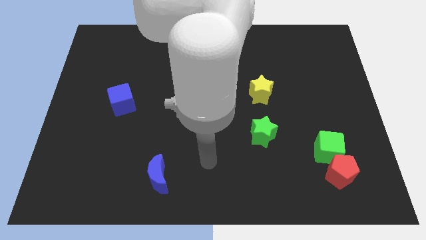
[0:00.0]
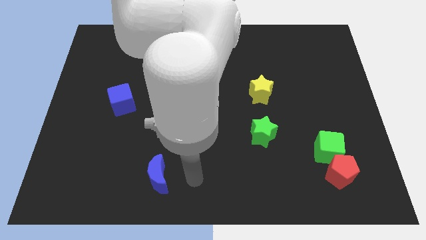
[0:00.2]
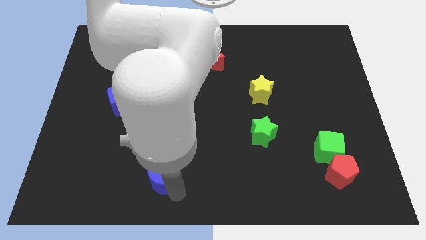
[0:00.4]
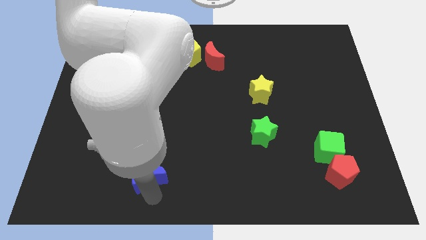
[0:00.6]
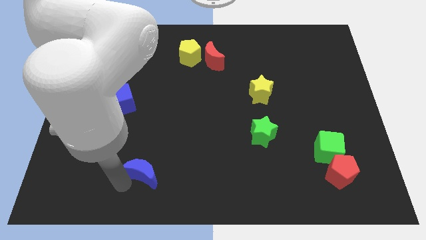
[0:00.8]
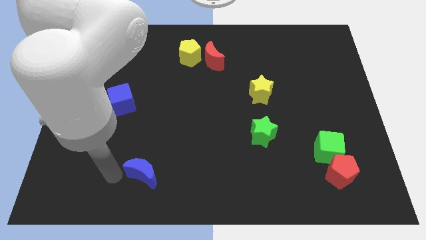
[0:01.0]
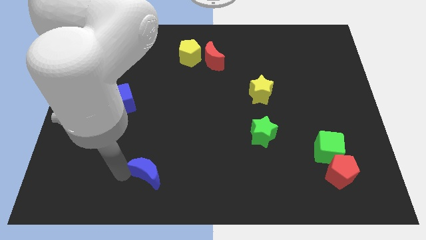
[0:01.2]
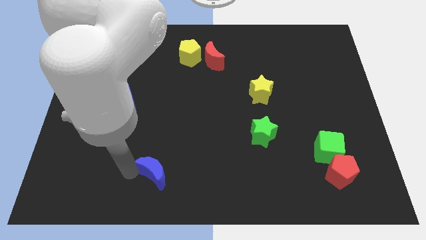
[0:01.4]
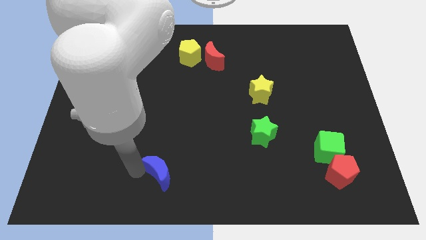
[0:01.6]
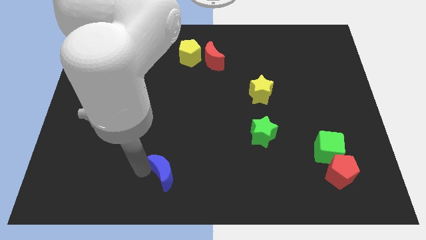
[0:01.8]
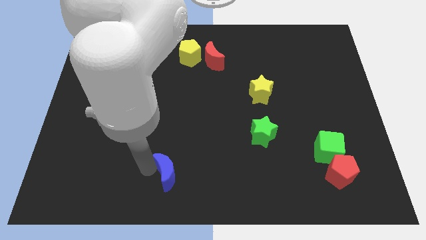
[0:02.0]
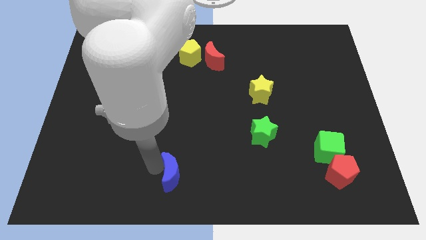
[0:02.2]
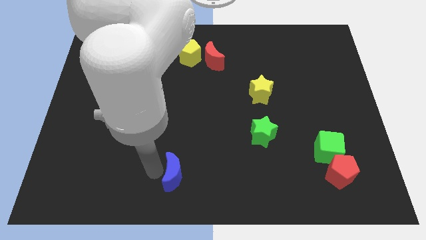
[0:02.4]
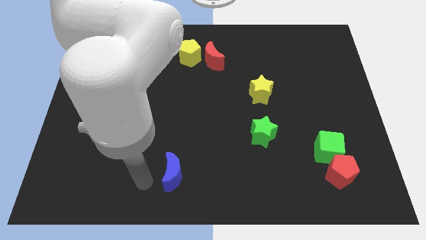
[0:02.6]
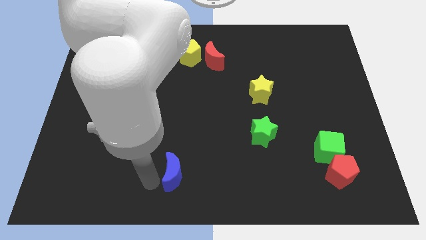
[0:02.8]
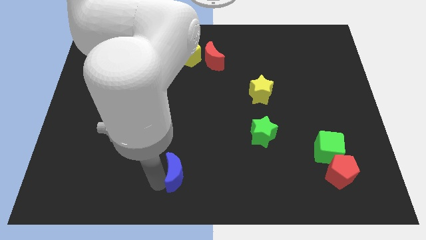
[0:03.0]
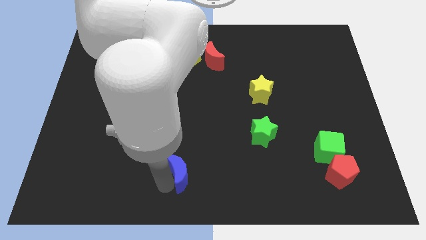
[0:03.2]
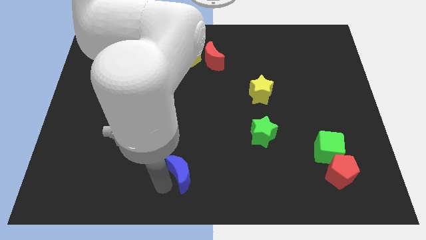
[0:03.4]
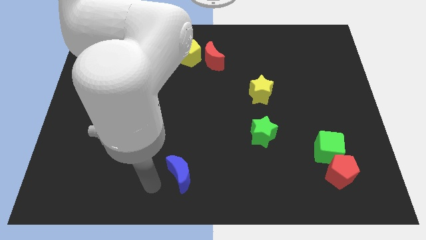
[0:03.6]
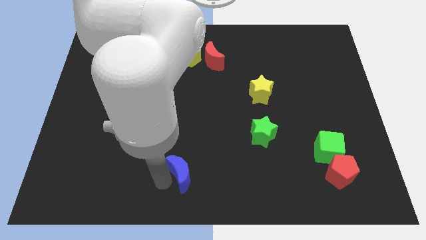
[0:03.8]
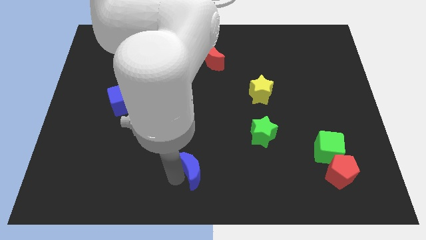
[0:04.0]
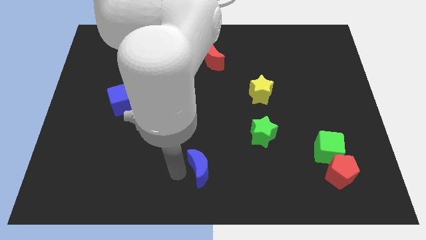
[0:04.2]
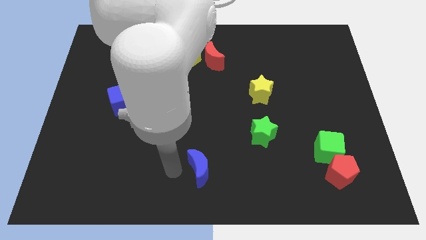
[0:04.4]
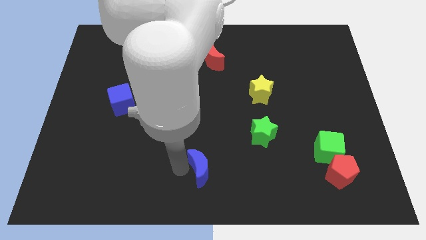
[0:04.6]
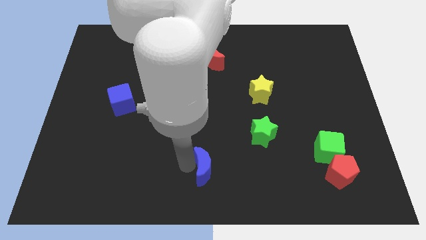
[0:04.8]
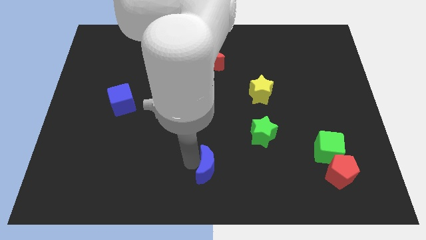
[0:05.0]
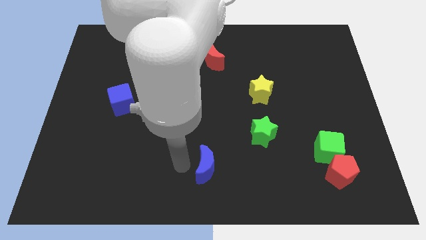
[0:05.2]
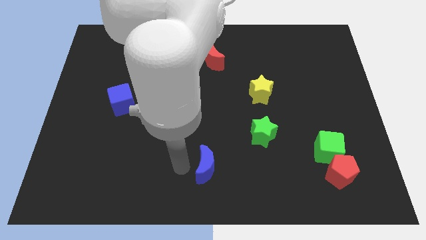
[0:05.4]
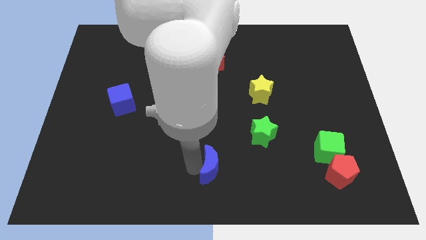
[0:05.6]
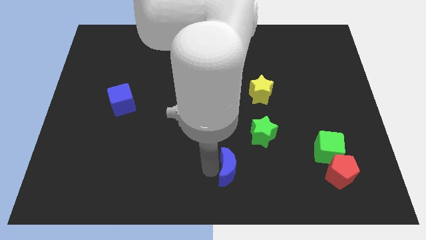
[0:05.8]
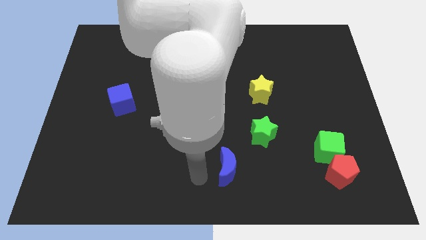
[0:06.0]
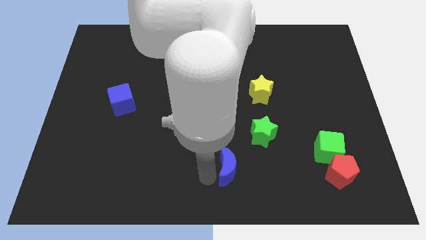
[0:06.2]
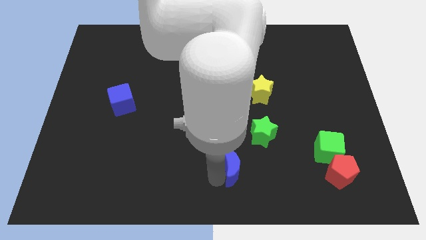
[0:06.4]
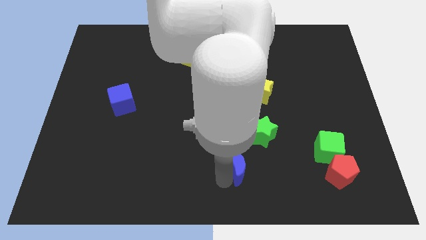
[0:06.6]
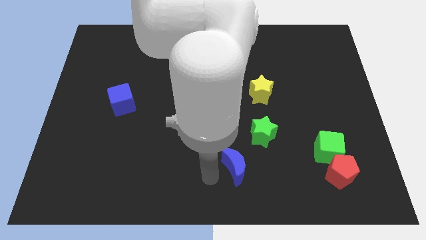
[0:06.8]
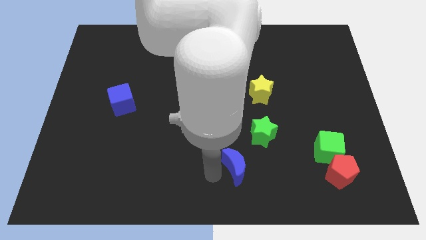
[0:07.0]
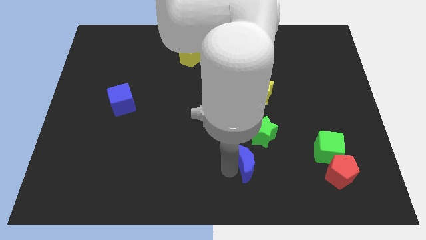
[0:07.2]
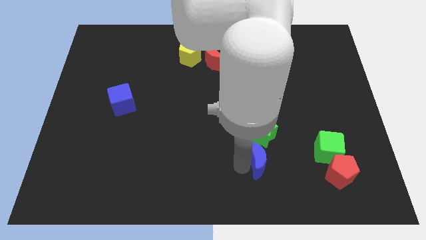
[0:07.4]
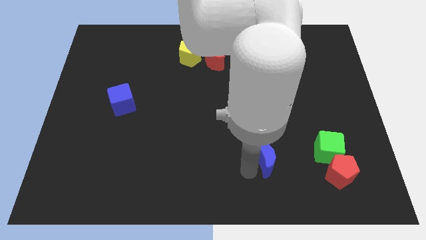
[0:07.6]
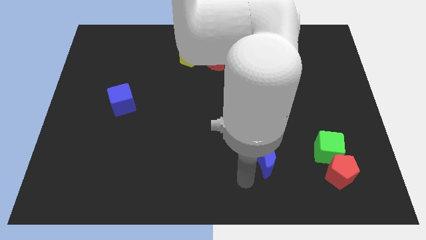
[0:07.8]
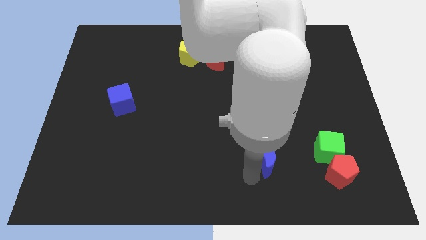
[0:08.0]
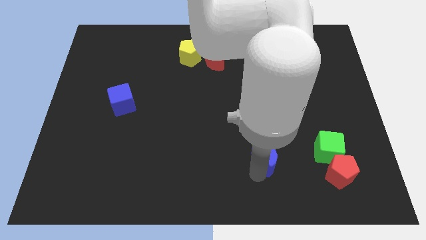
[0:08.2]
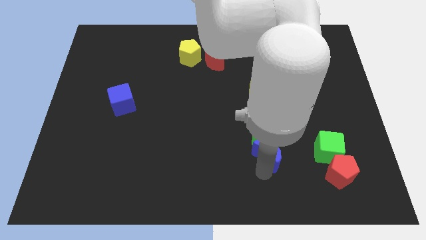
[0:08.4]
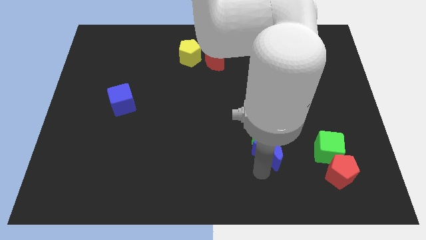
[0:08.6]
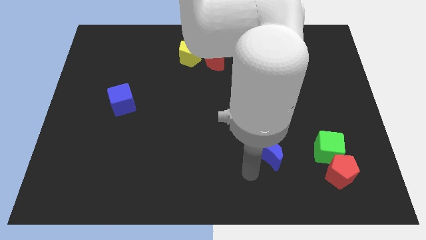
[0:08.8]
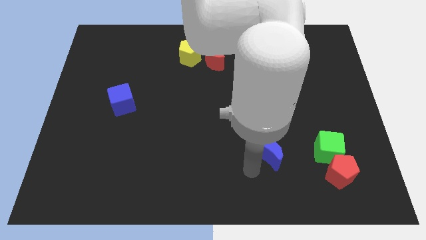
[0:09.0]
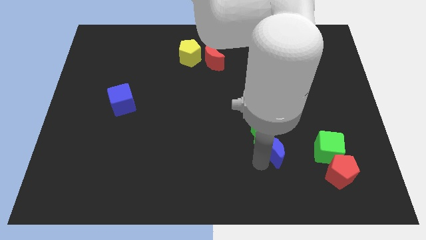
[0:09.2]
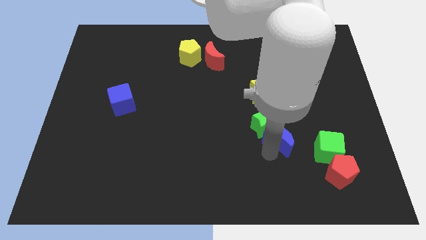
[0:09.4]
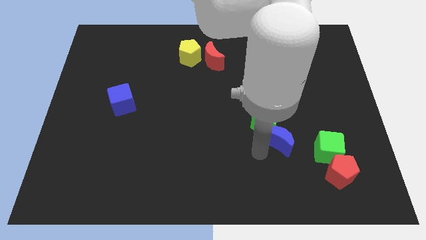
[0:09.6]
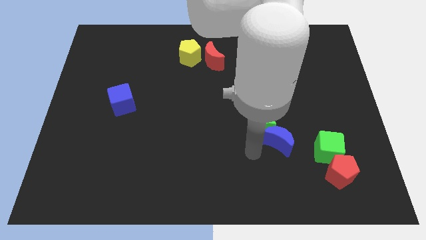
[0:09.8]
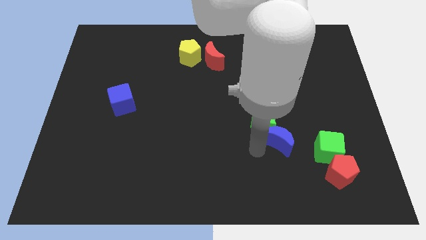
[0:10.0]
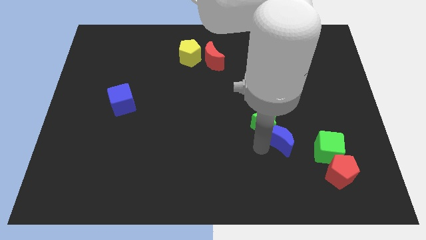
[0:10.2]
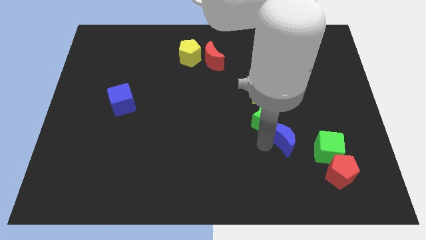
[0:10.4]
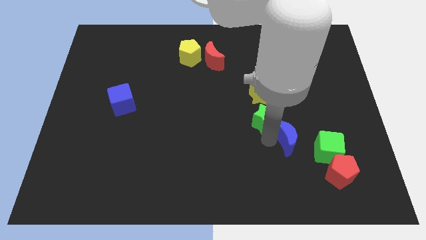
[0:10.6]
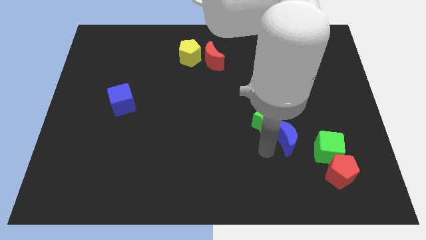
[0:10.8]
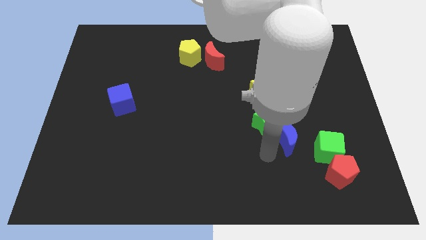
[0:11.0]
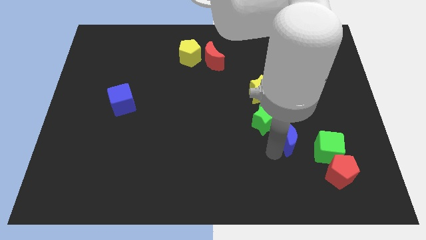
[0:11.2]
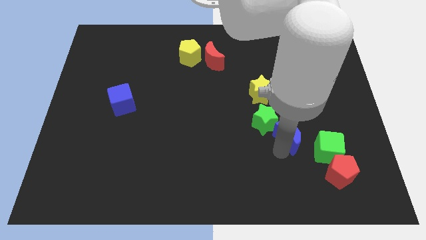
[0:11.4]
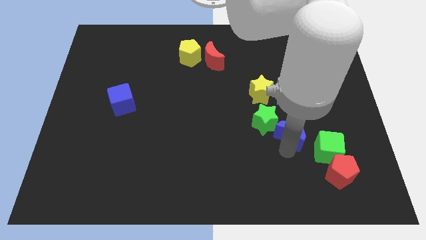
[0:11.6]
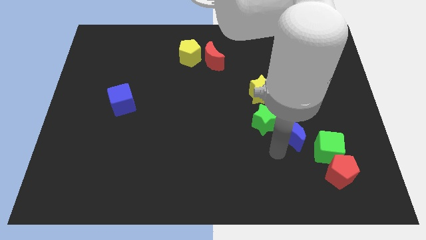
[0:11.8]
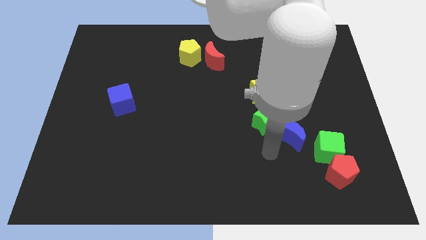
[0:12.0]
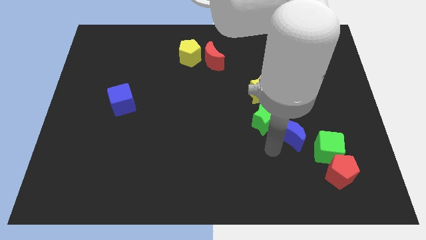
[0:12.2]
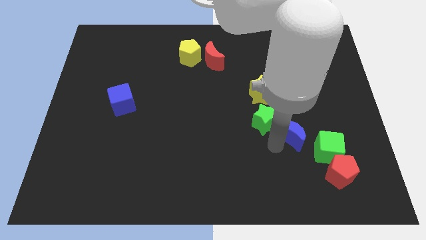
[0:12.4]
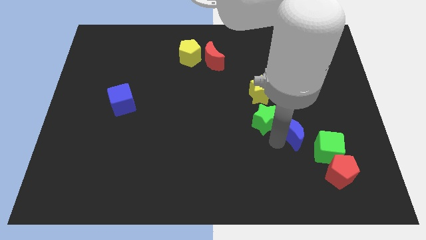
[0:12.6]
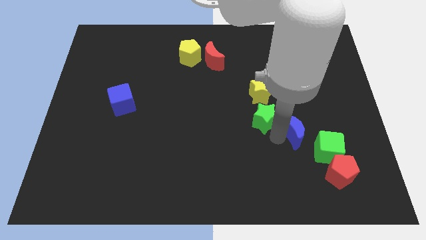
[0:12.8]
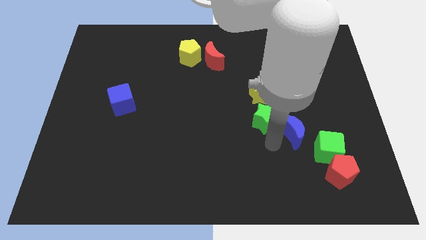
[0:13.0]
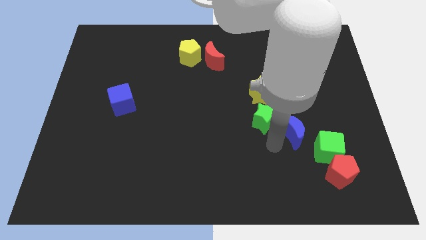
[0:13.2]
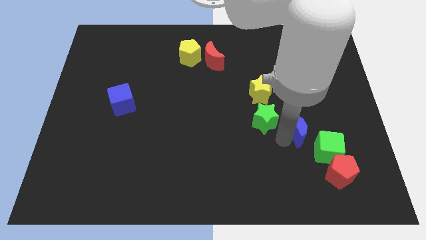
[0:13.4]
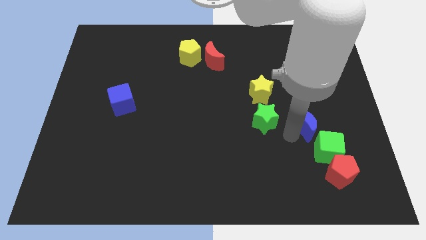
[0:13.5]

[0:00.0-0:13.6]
put the blue moon to the top side of the green cube

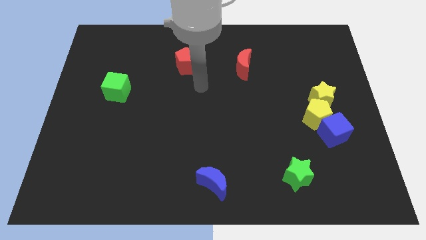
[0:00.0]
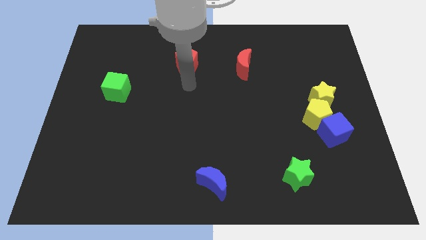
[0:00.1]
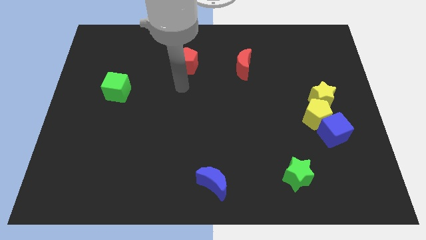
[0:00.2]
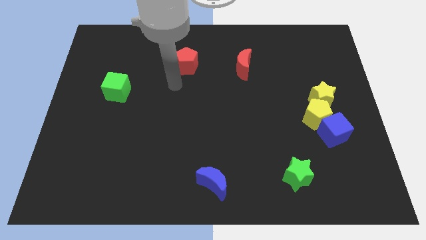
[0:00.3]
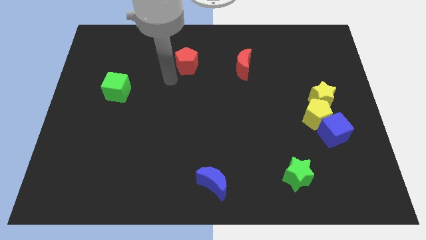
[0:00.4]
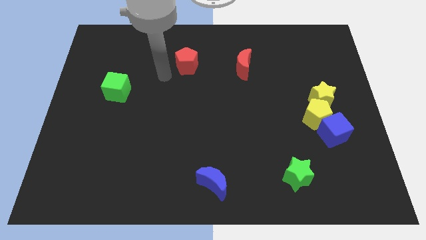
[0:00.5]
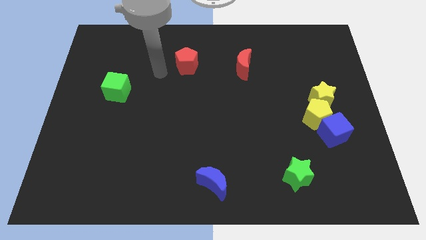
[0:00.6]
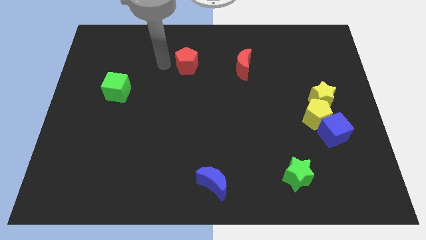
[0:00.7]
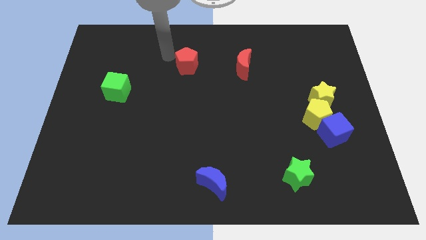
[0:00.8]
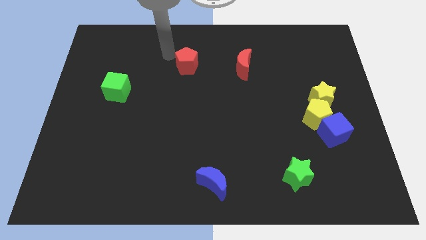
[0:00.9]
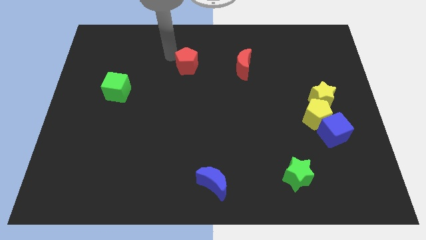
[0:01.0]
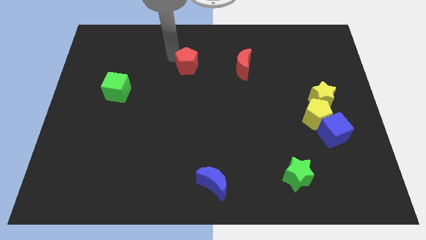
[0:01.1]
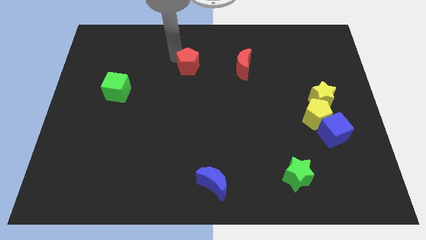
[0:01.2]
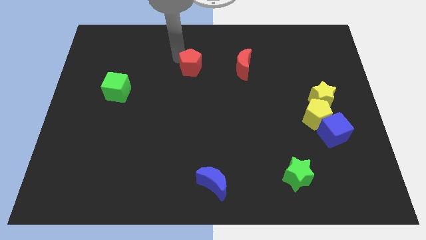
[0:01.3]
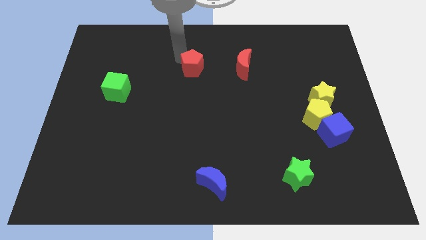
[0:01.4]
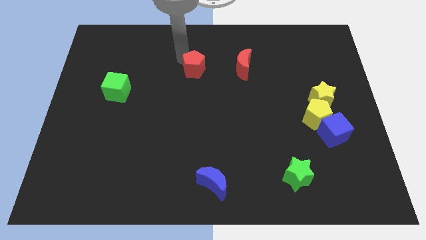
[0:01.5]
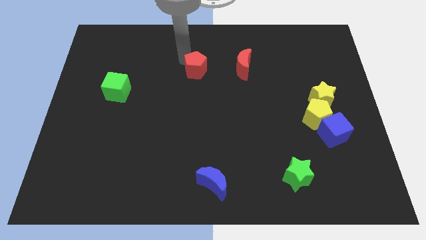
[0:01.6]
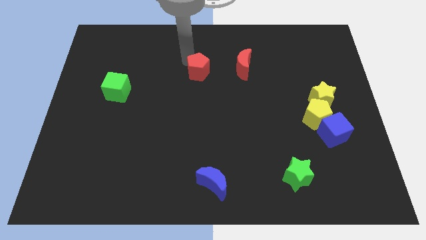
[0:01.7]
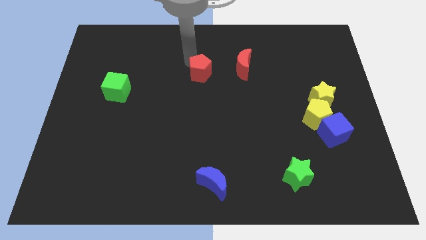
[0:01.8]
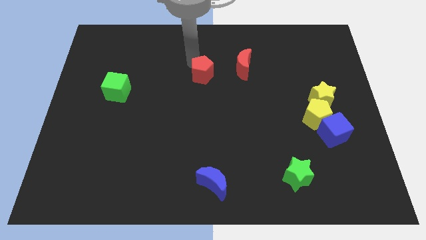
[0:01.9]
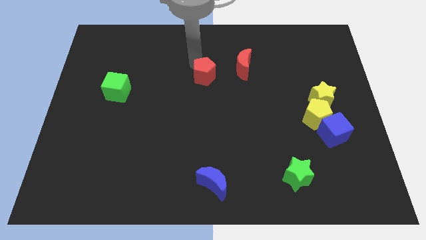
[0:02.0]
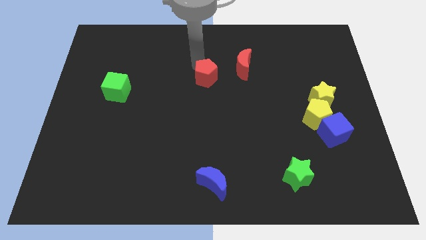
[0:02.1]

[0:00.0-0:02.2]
slide the red pentagon diagonally down and to the left of the red moon
